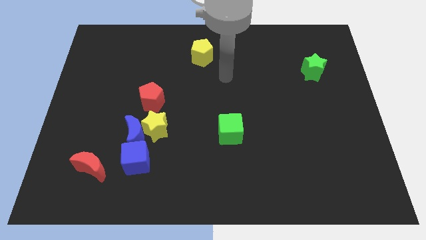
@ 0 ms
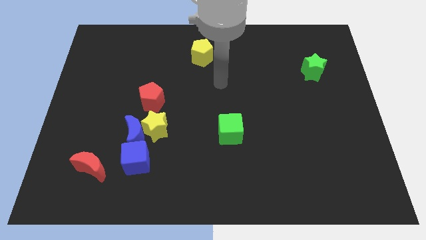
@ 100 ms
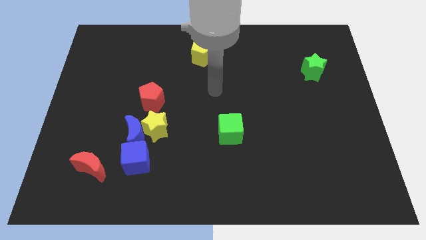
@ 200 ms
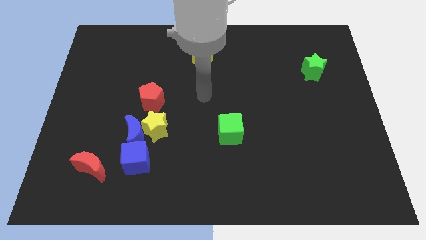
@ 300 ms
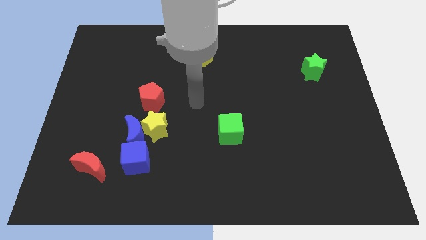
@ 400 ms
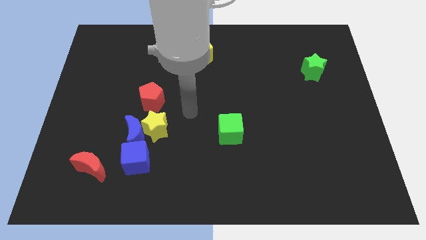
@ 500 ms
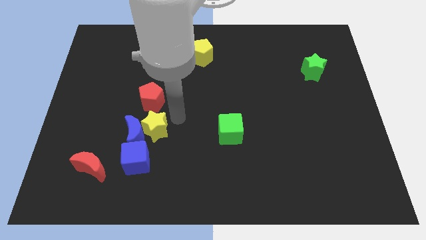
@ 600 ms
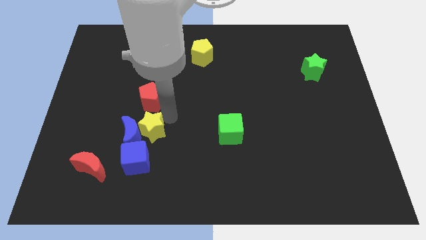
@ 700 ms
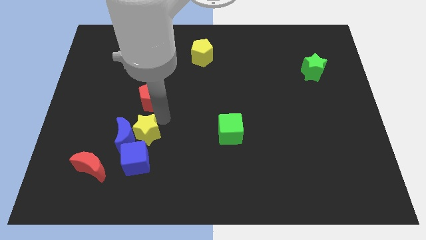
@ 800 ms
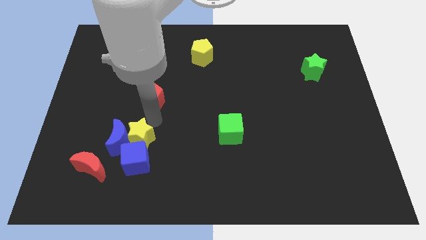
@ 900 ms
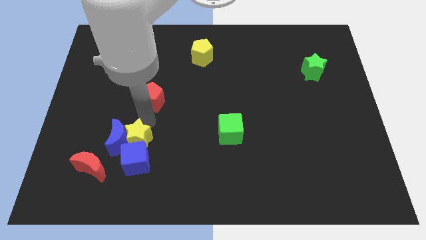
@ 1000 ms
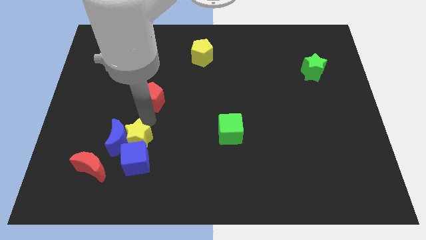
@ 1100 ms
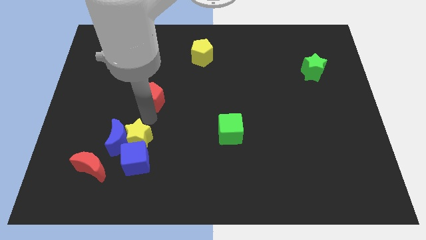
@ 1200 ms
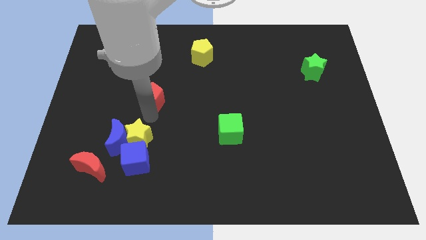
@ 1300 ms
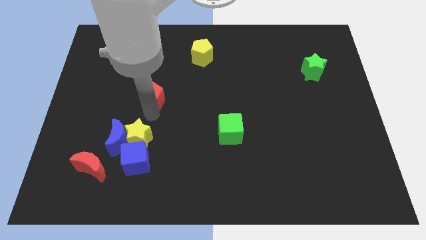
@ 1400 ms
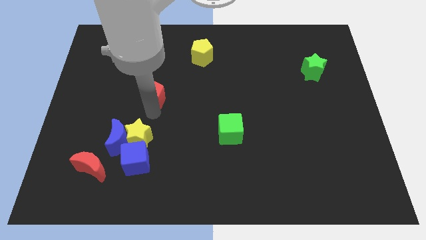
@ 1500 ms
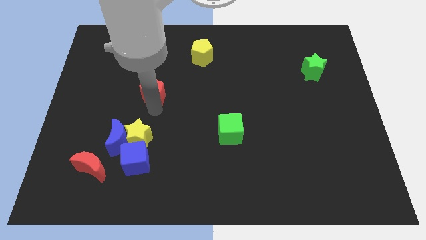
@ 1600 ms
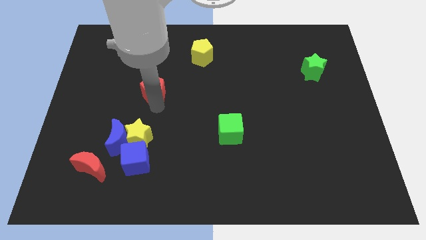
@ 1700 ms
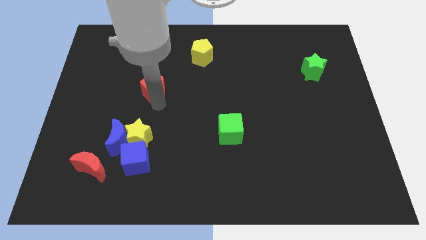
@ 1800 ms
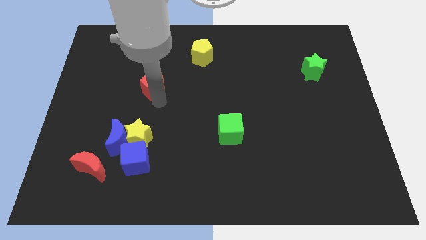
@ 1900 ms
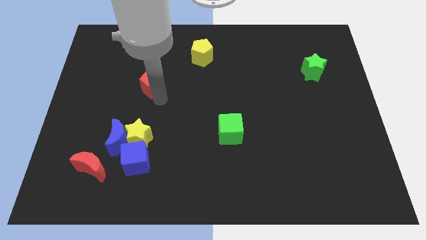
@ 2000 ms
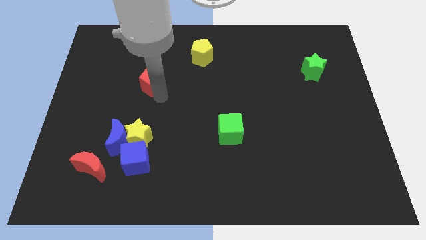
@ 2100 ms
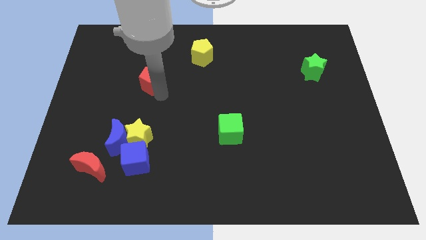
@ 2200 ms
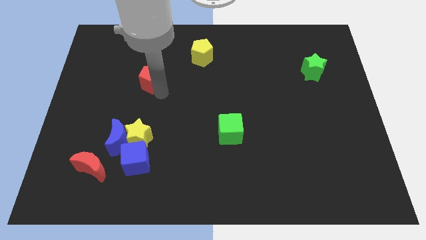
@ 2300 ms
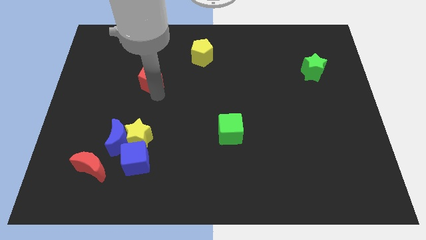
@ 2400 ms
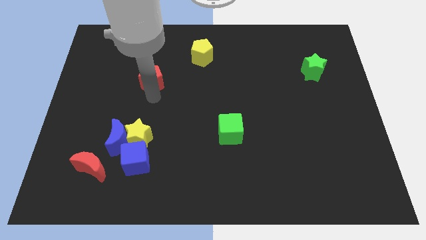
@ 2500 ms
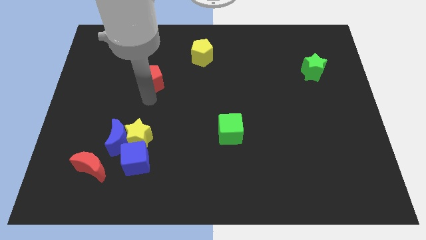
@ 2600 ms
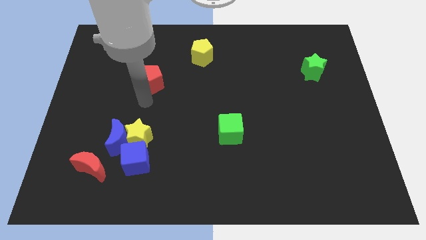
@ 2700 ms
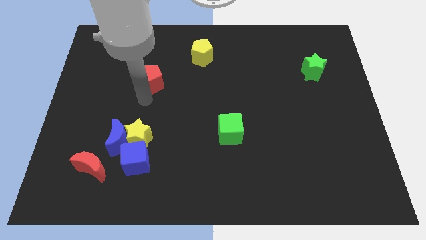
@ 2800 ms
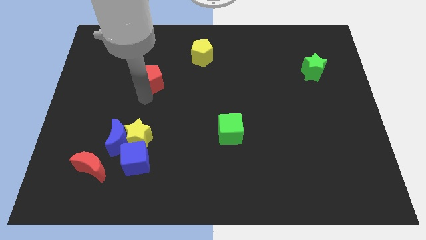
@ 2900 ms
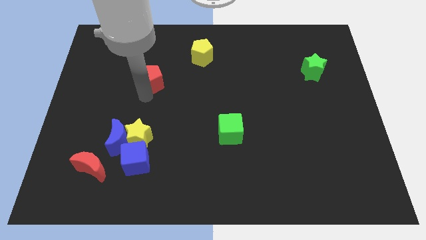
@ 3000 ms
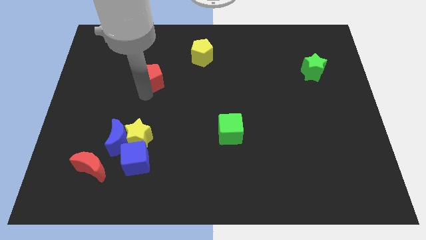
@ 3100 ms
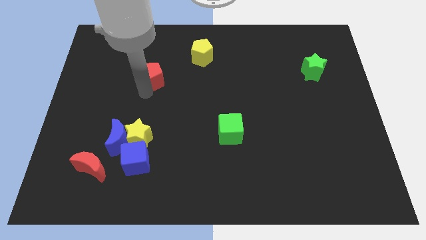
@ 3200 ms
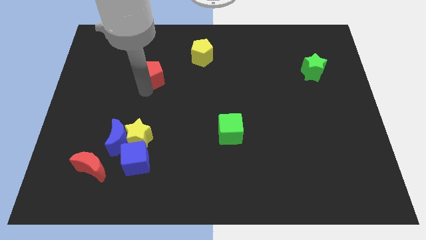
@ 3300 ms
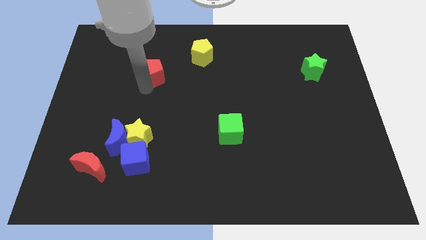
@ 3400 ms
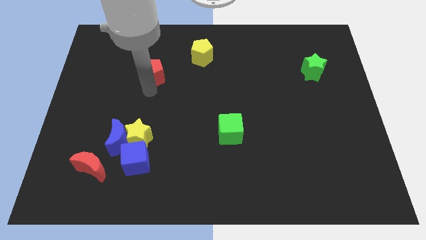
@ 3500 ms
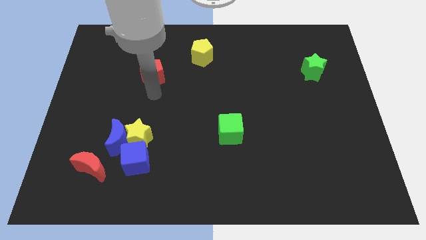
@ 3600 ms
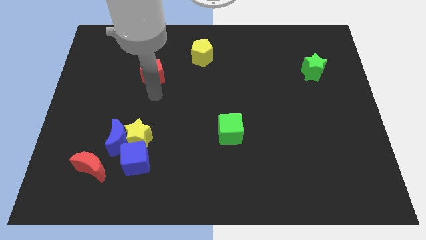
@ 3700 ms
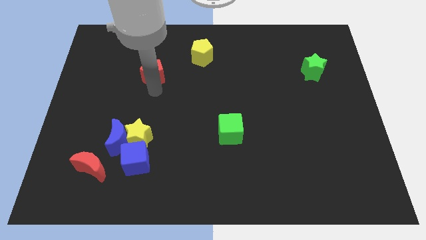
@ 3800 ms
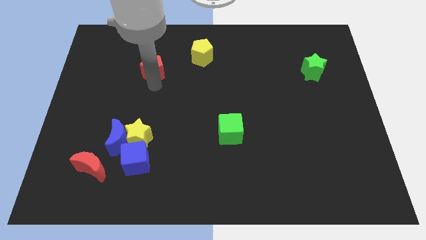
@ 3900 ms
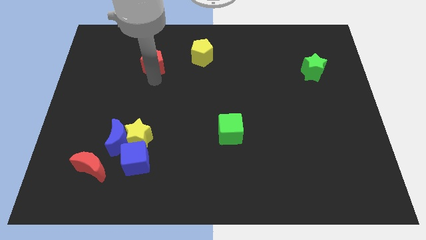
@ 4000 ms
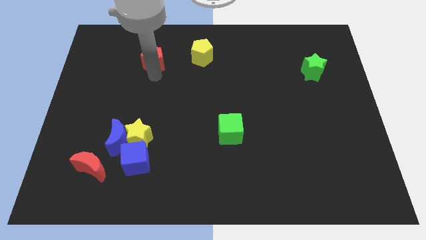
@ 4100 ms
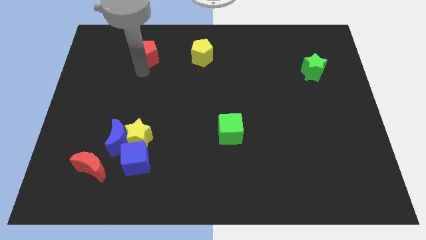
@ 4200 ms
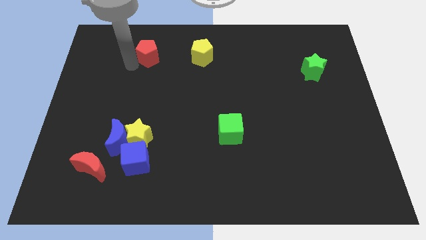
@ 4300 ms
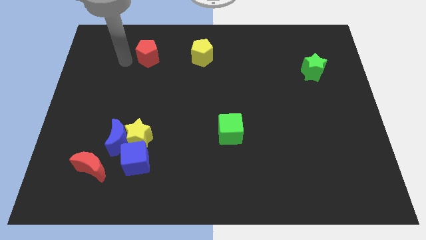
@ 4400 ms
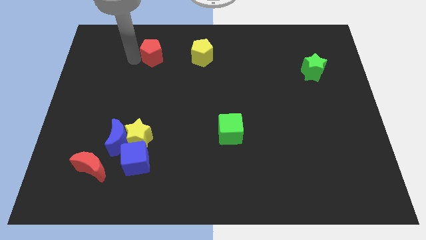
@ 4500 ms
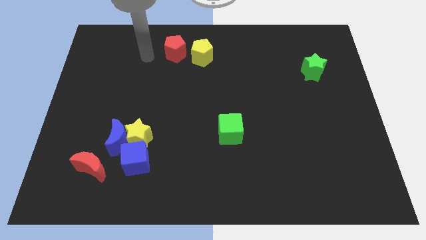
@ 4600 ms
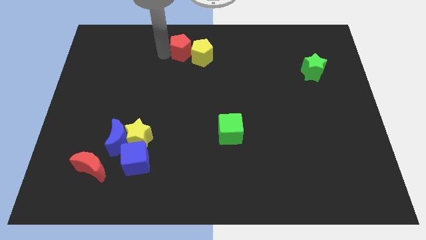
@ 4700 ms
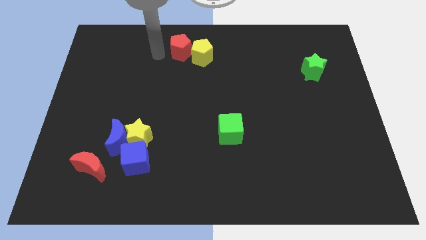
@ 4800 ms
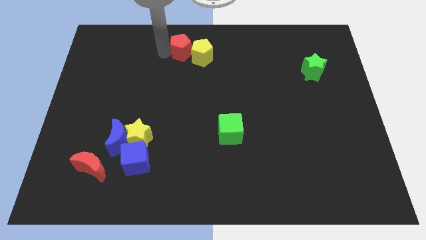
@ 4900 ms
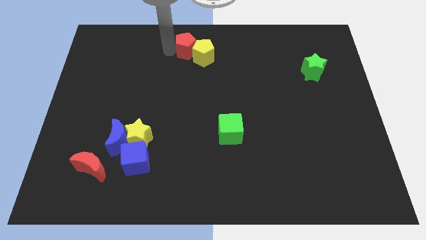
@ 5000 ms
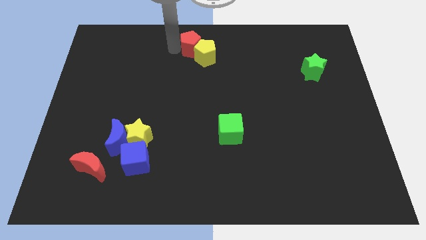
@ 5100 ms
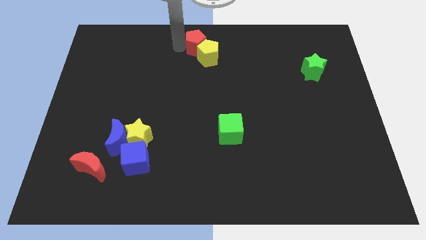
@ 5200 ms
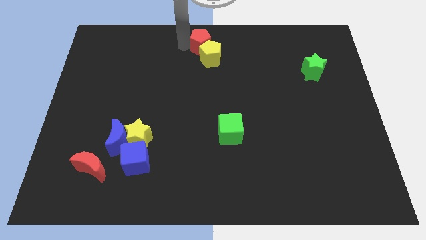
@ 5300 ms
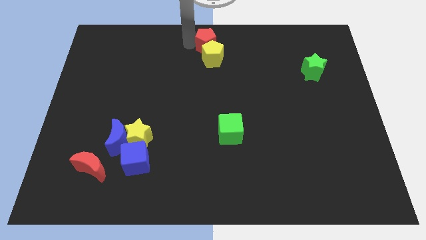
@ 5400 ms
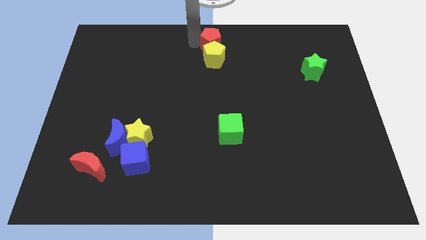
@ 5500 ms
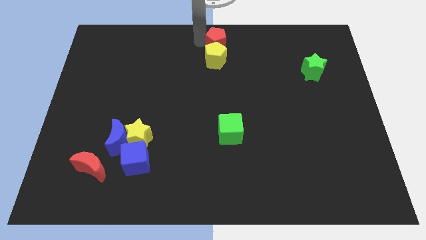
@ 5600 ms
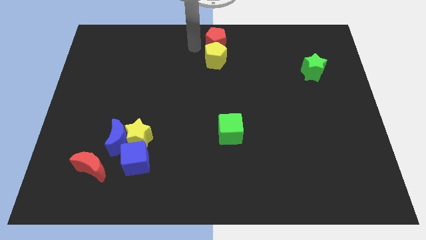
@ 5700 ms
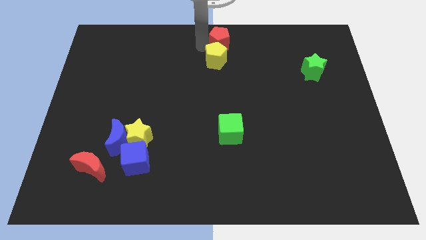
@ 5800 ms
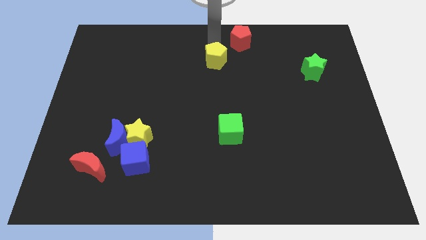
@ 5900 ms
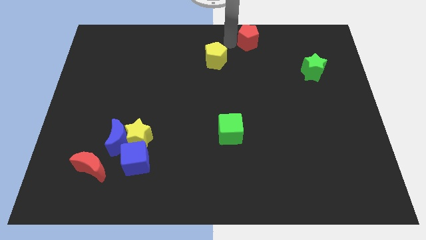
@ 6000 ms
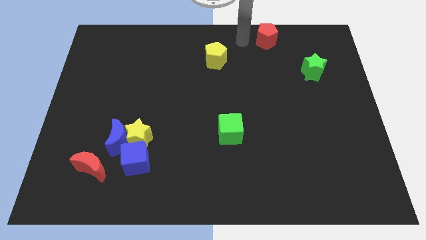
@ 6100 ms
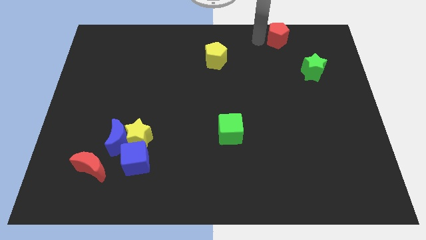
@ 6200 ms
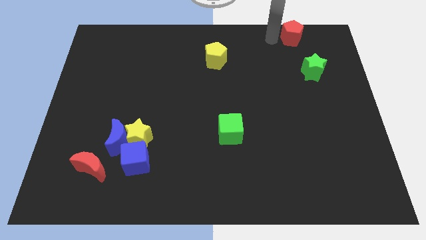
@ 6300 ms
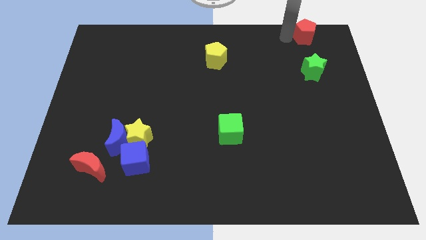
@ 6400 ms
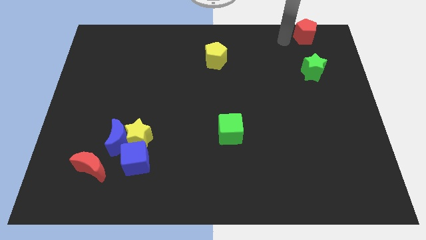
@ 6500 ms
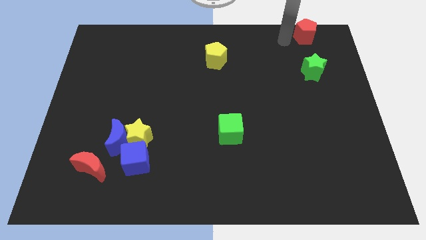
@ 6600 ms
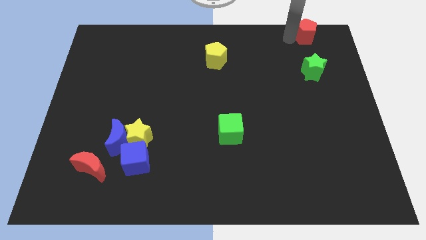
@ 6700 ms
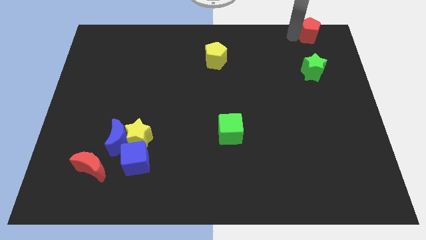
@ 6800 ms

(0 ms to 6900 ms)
push the red pentagon to the top right
